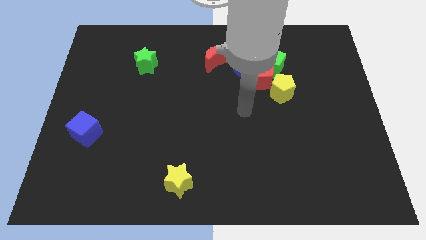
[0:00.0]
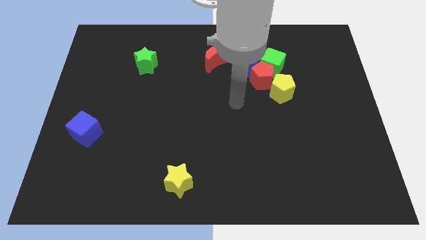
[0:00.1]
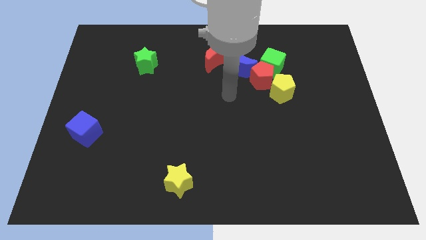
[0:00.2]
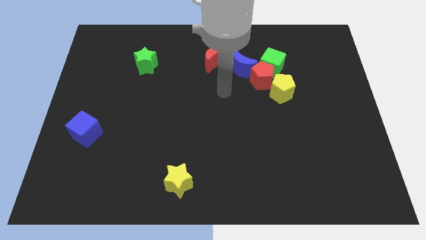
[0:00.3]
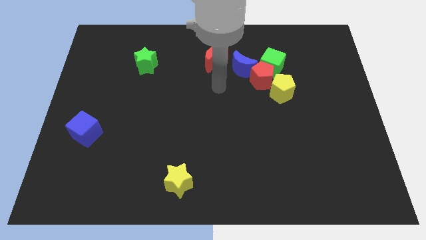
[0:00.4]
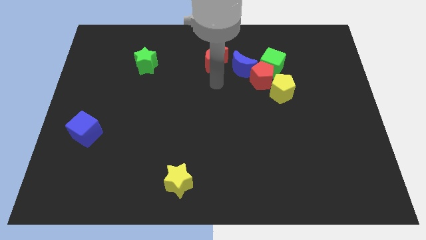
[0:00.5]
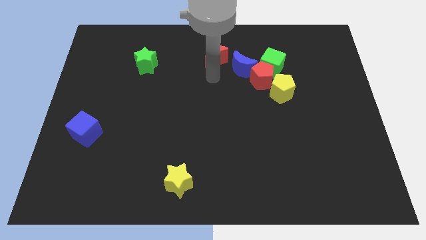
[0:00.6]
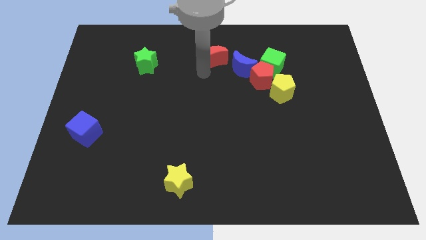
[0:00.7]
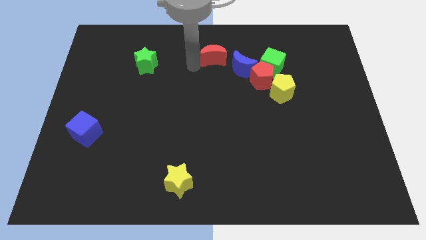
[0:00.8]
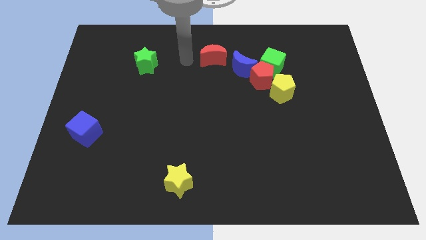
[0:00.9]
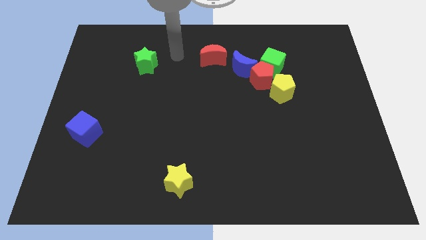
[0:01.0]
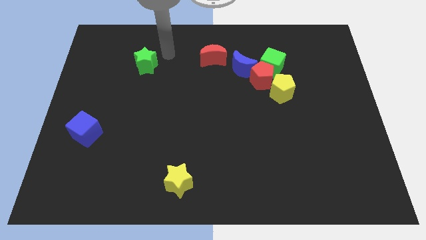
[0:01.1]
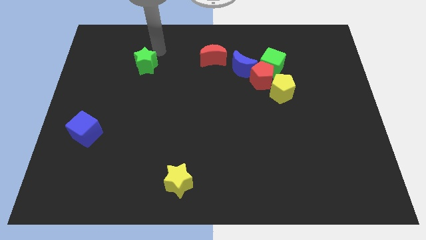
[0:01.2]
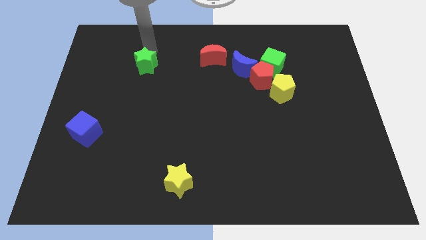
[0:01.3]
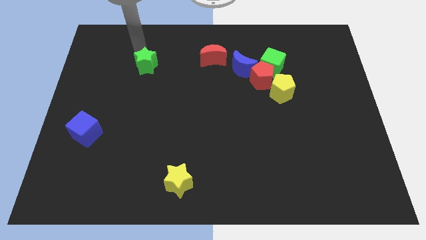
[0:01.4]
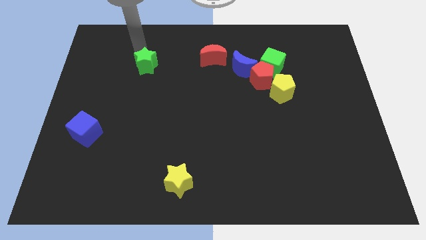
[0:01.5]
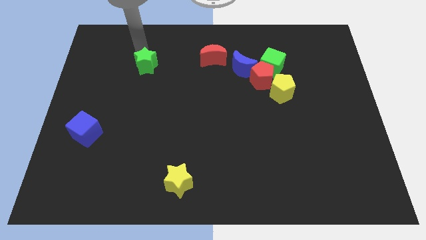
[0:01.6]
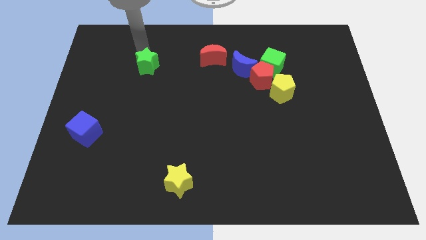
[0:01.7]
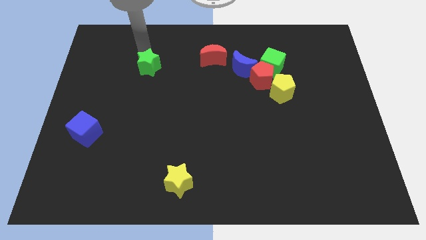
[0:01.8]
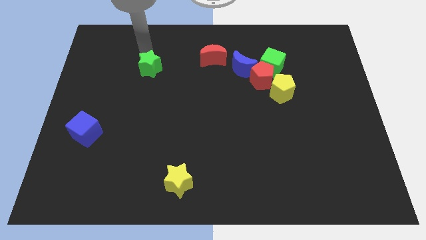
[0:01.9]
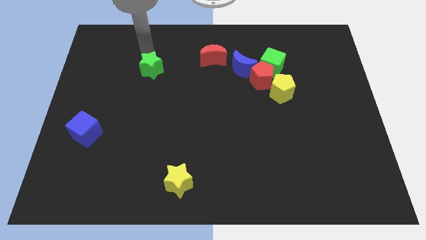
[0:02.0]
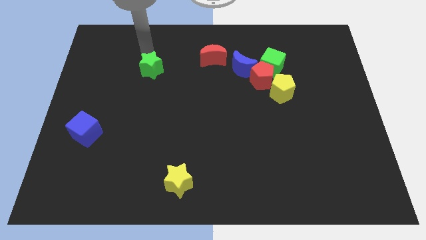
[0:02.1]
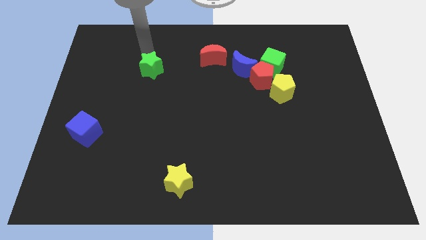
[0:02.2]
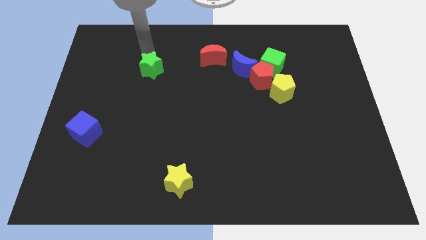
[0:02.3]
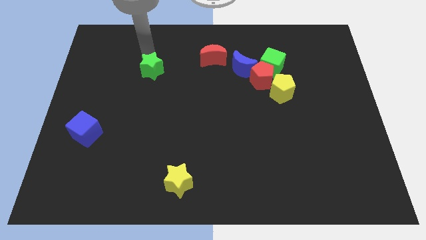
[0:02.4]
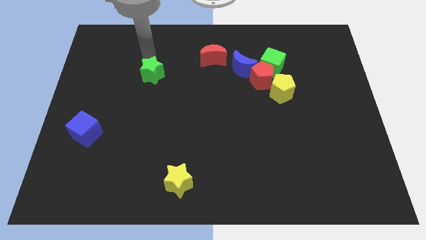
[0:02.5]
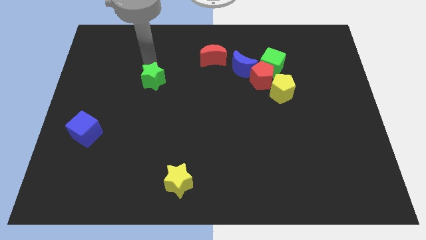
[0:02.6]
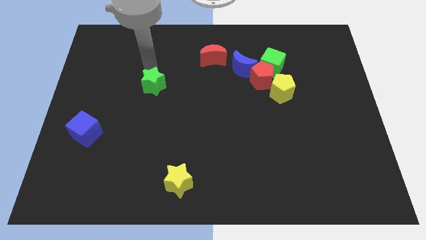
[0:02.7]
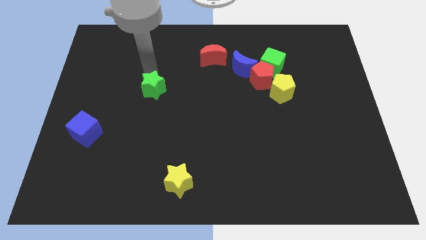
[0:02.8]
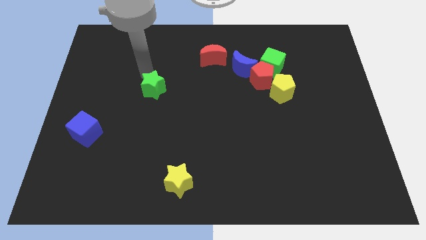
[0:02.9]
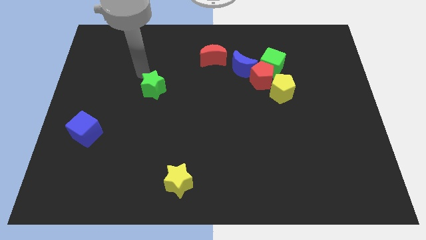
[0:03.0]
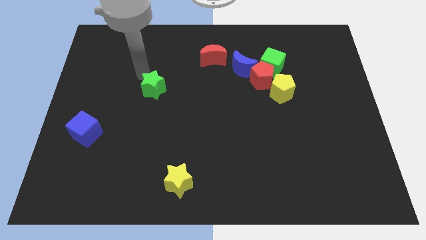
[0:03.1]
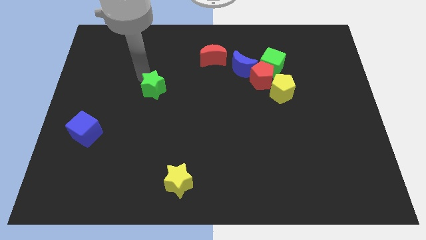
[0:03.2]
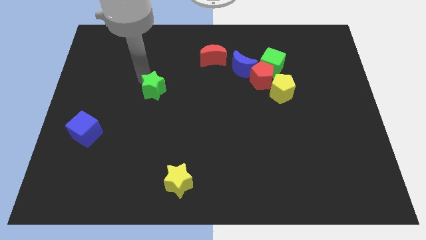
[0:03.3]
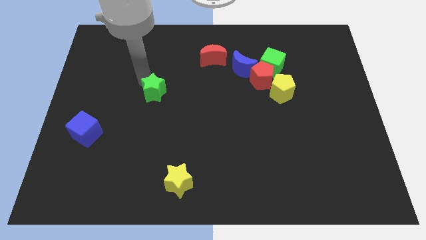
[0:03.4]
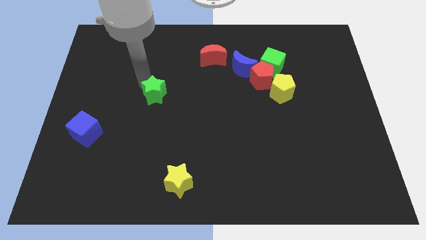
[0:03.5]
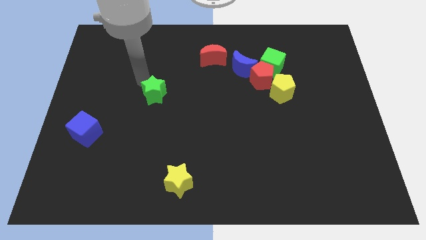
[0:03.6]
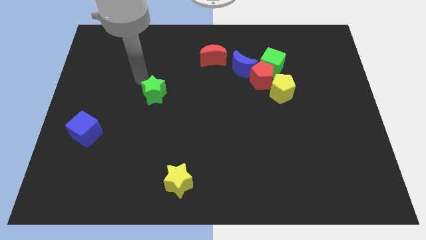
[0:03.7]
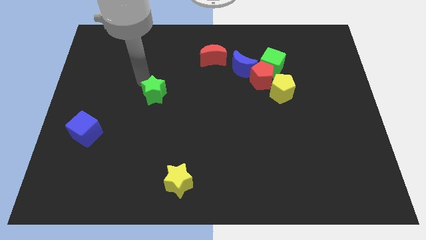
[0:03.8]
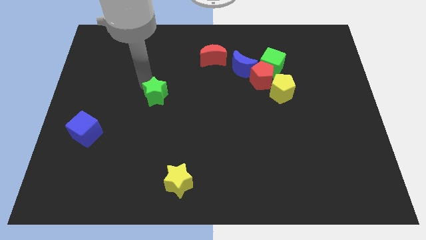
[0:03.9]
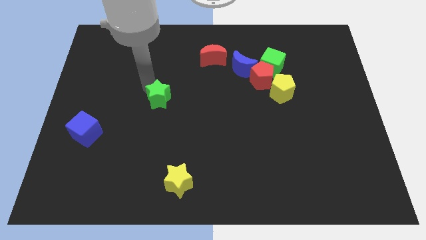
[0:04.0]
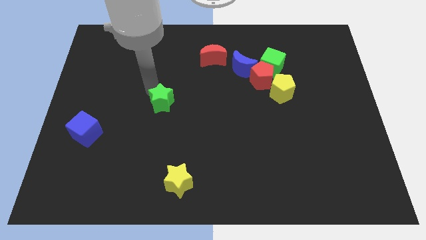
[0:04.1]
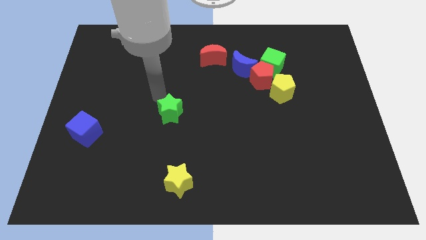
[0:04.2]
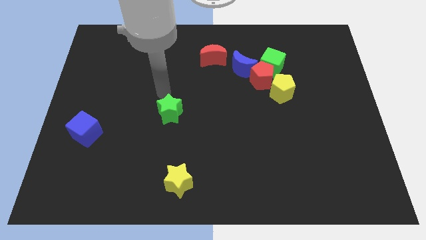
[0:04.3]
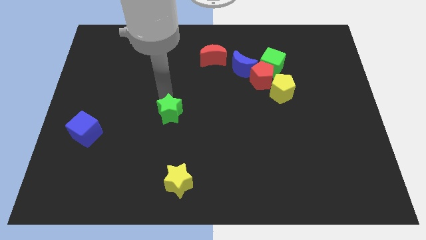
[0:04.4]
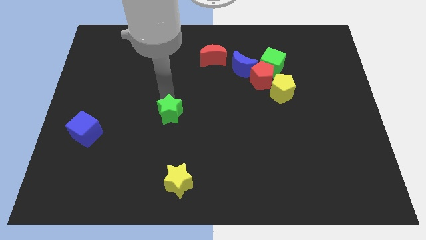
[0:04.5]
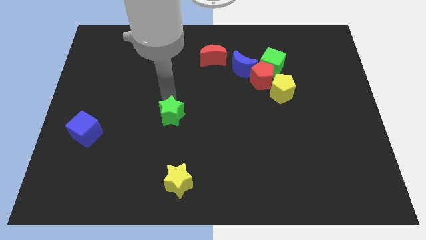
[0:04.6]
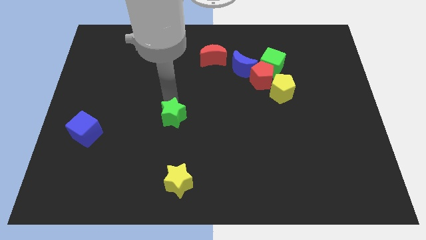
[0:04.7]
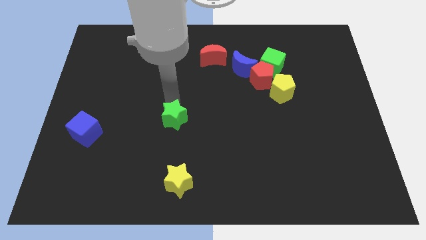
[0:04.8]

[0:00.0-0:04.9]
move the green star to the top of the yellow star

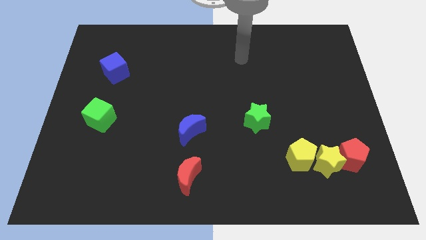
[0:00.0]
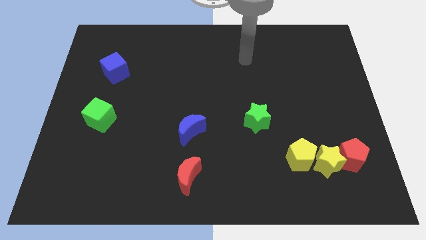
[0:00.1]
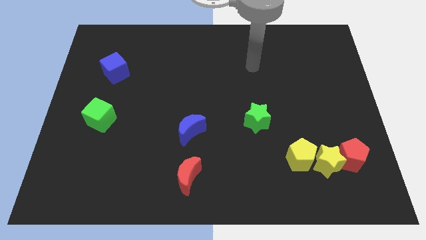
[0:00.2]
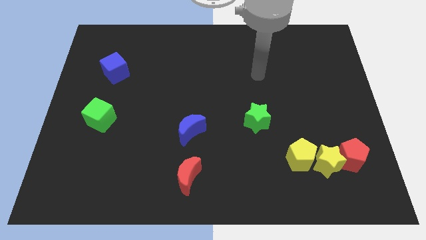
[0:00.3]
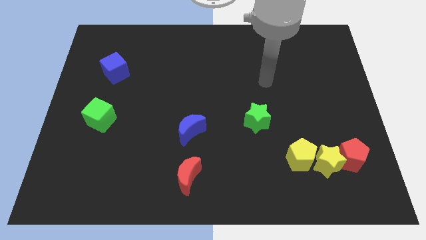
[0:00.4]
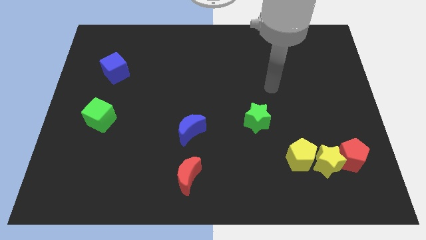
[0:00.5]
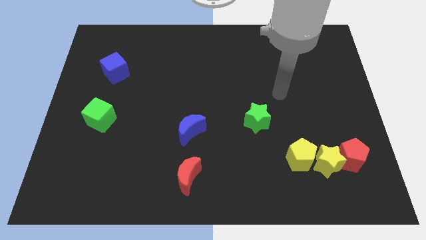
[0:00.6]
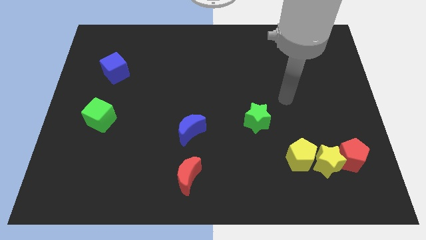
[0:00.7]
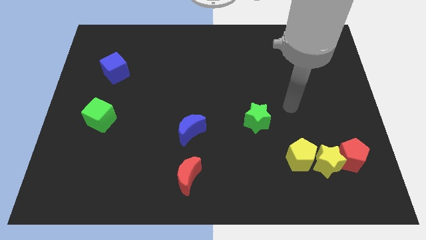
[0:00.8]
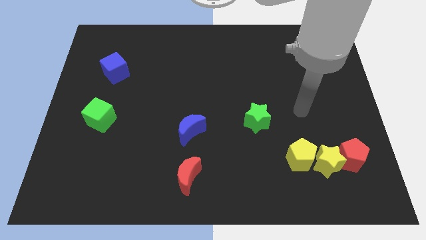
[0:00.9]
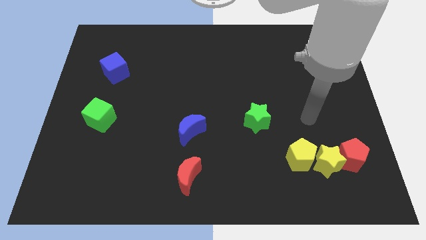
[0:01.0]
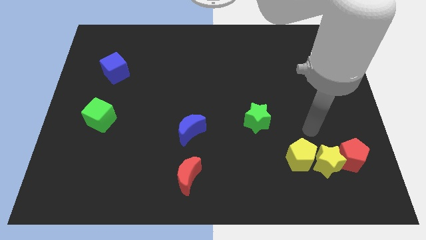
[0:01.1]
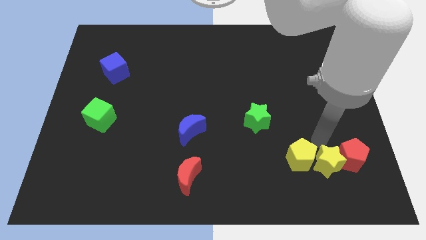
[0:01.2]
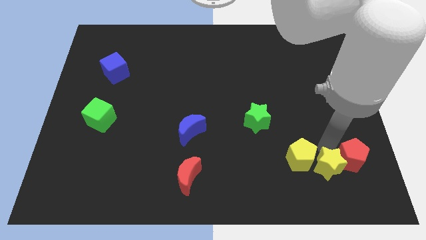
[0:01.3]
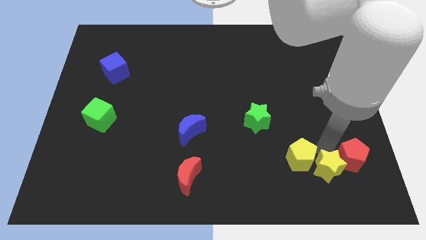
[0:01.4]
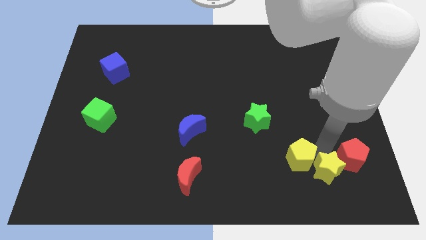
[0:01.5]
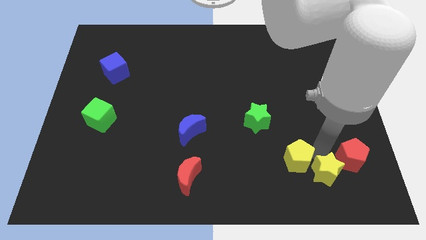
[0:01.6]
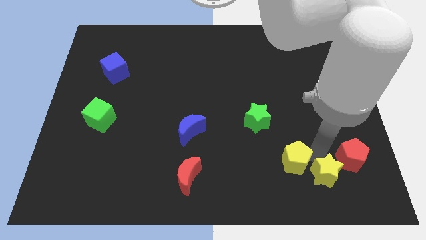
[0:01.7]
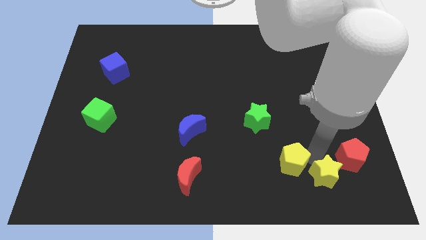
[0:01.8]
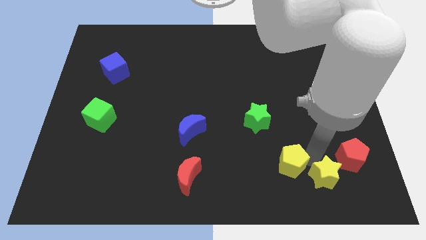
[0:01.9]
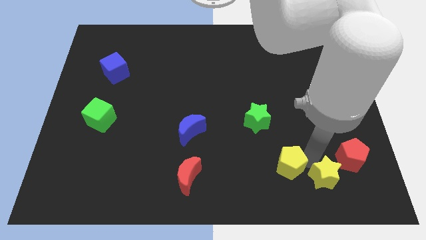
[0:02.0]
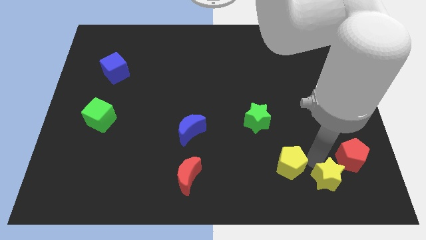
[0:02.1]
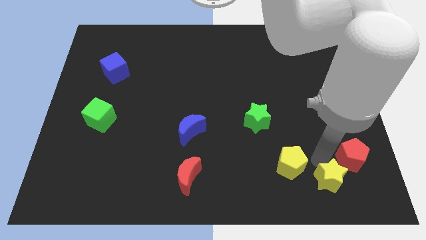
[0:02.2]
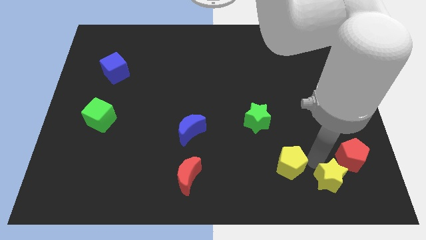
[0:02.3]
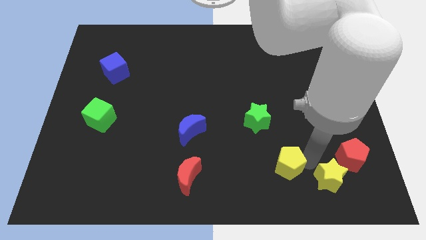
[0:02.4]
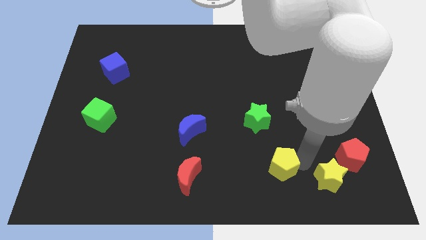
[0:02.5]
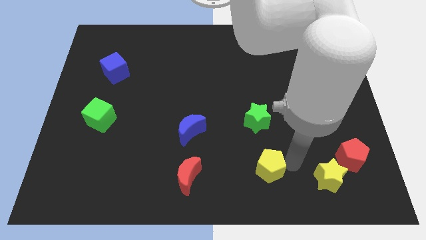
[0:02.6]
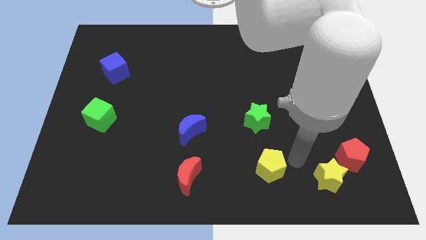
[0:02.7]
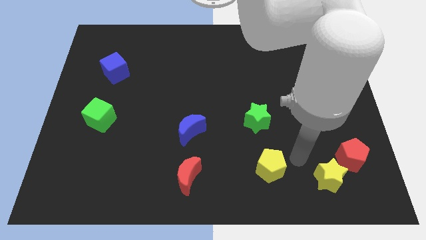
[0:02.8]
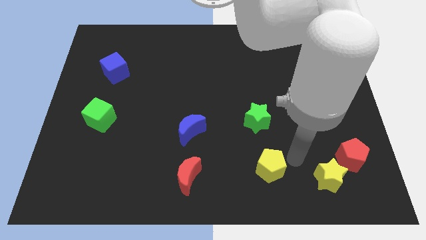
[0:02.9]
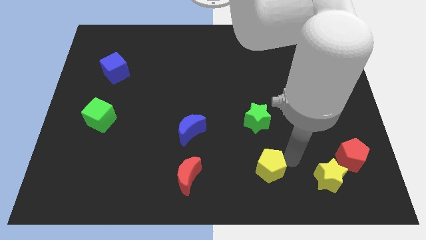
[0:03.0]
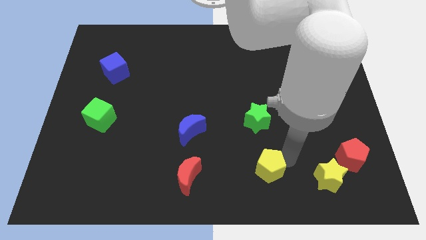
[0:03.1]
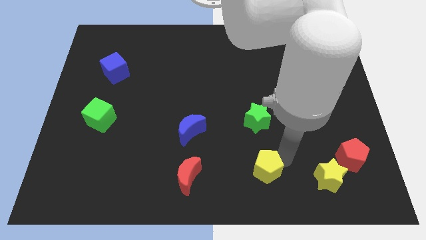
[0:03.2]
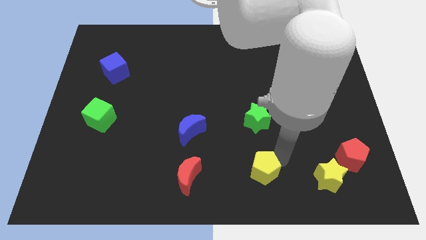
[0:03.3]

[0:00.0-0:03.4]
move the yellow pentagon to the right side of the red moon

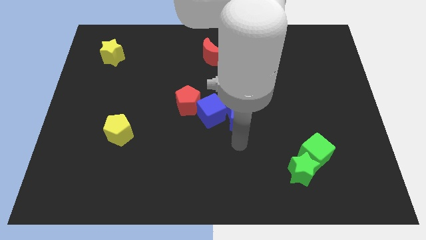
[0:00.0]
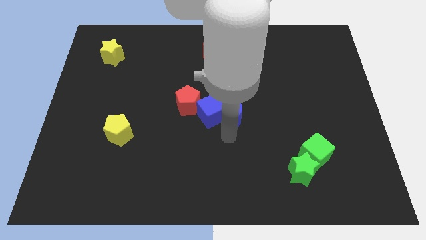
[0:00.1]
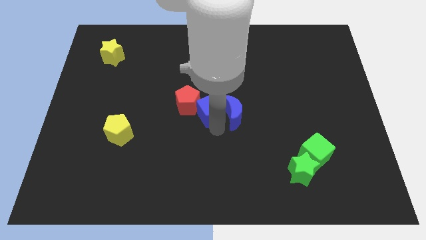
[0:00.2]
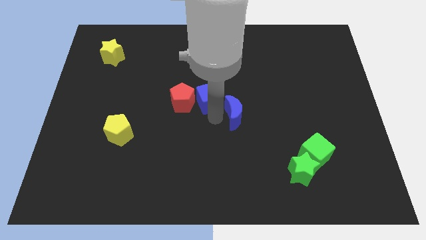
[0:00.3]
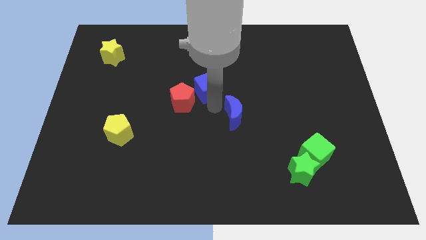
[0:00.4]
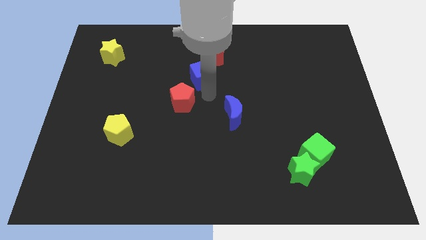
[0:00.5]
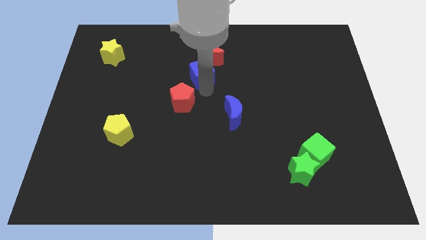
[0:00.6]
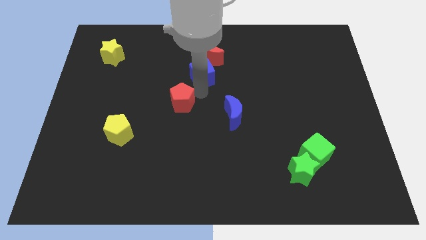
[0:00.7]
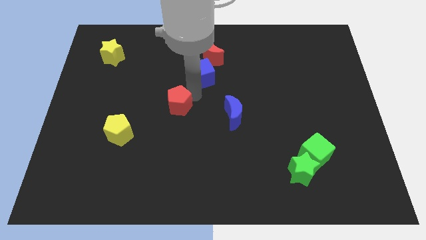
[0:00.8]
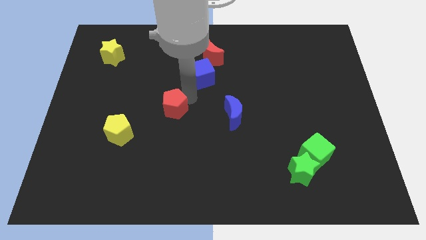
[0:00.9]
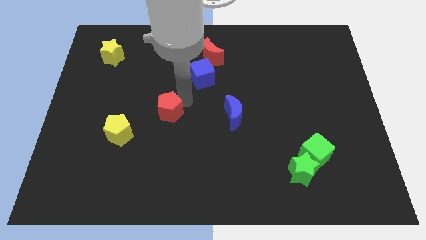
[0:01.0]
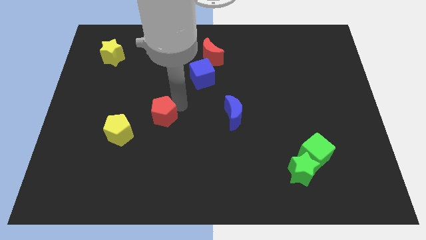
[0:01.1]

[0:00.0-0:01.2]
slide the red pentagon diagonally up and to the right of the yellow pentagon
